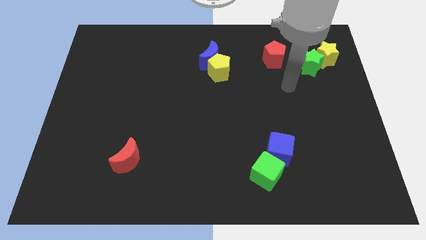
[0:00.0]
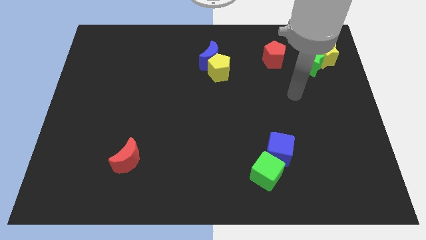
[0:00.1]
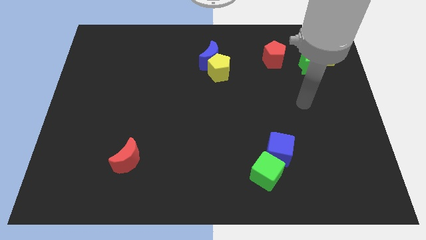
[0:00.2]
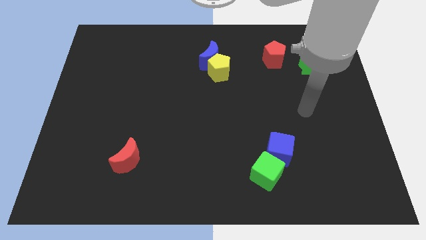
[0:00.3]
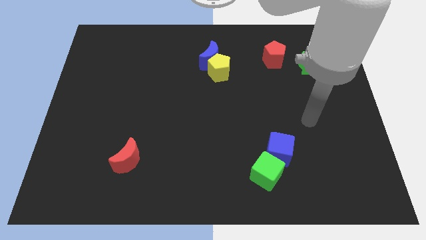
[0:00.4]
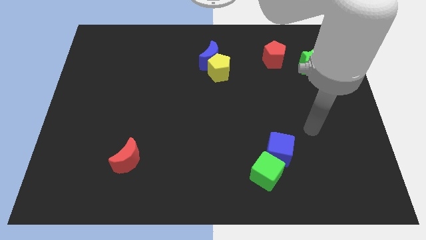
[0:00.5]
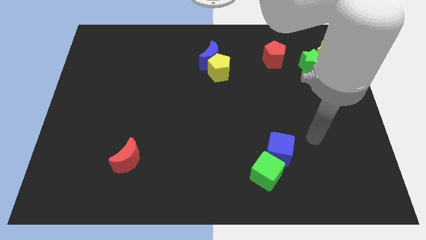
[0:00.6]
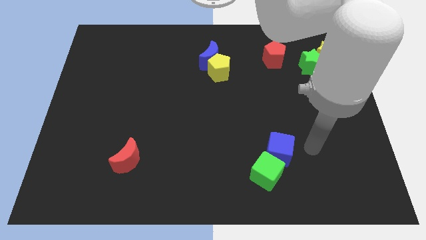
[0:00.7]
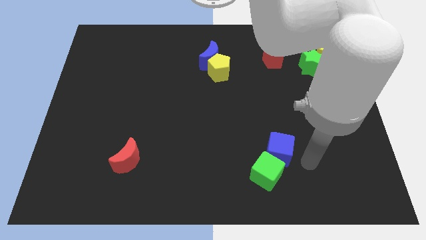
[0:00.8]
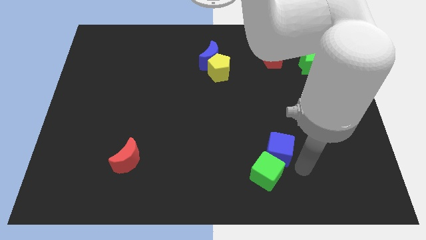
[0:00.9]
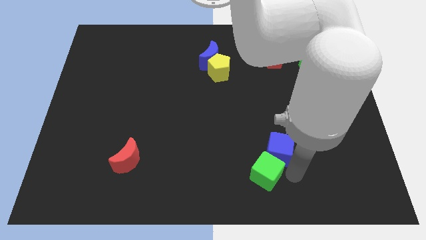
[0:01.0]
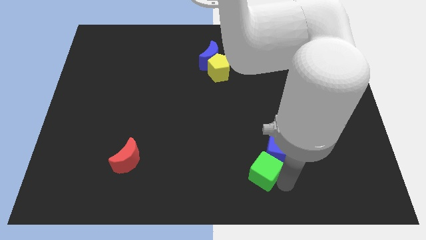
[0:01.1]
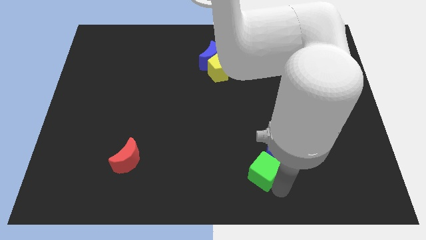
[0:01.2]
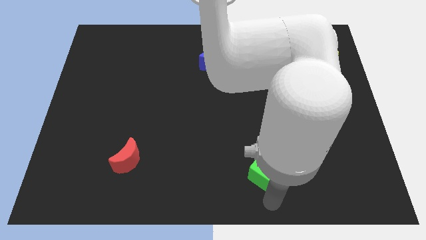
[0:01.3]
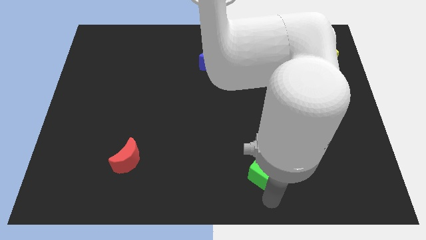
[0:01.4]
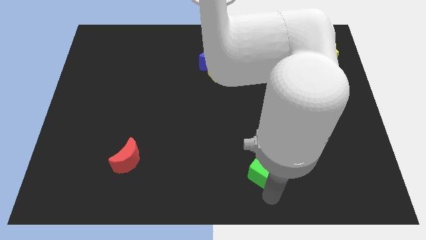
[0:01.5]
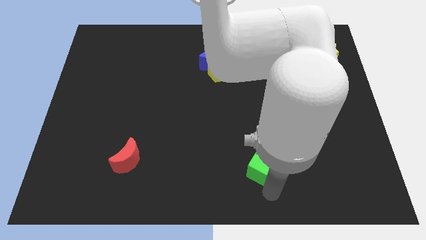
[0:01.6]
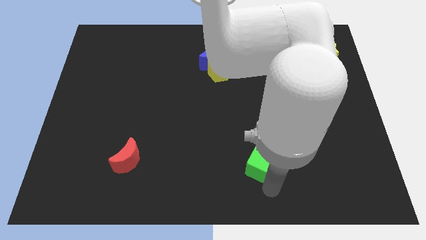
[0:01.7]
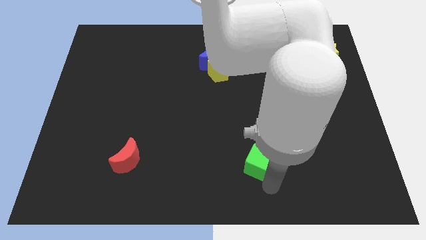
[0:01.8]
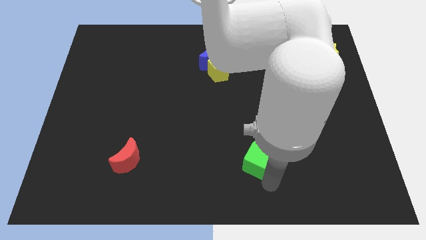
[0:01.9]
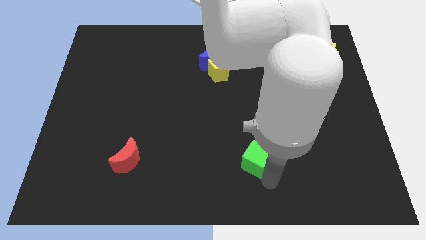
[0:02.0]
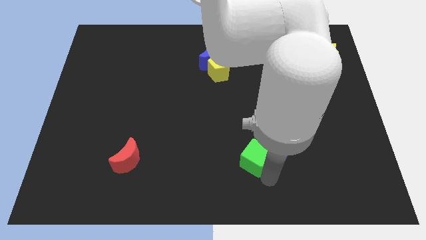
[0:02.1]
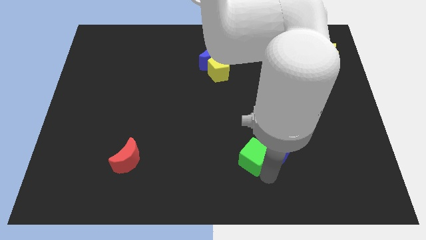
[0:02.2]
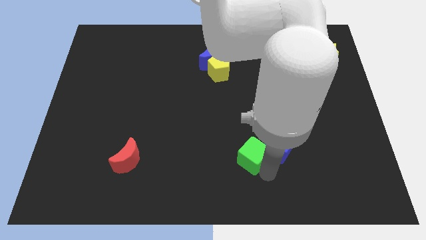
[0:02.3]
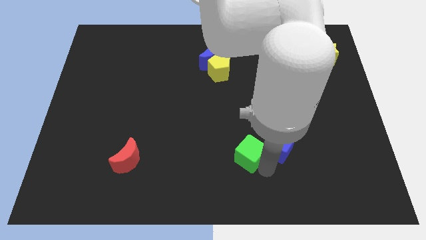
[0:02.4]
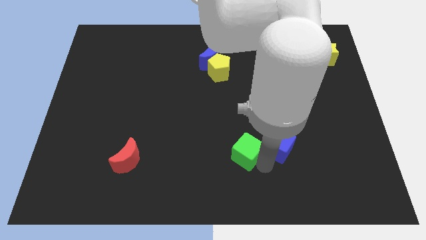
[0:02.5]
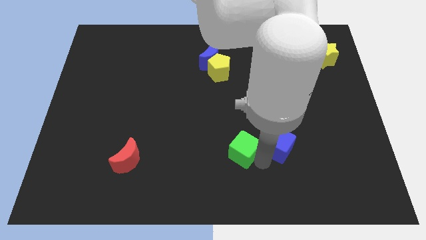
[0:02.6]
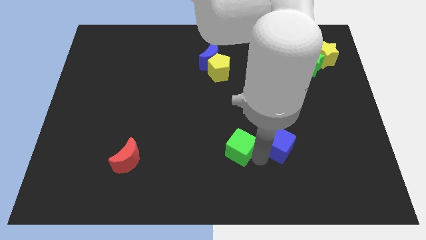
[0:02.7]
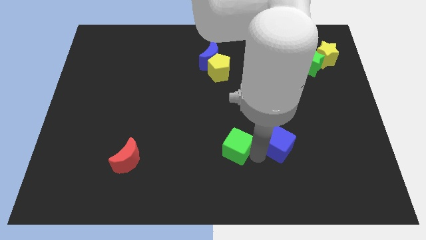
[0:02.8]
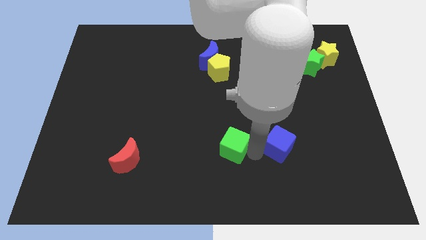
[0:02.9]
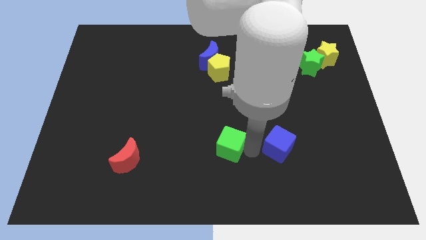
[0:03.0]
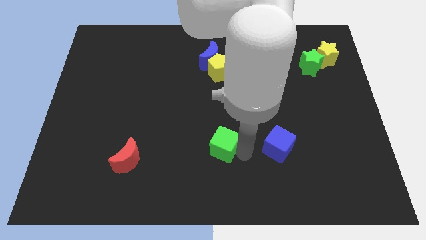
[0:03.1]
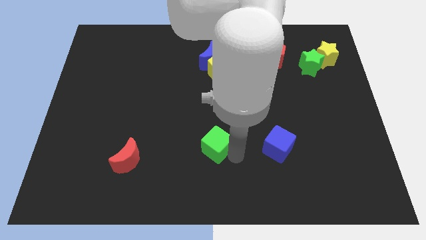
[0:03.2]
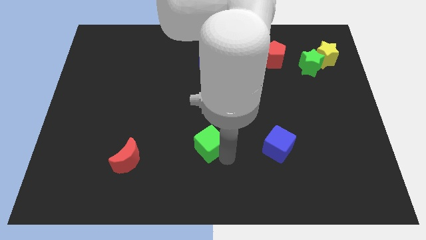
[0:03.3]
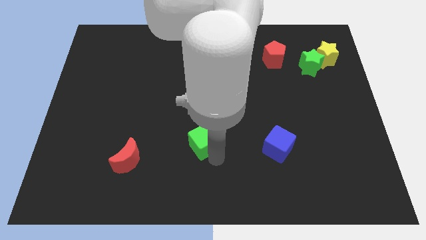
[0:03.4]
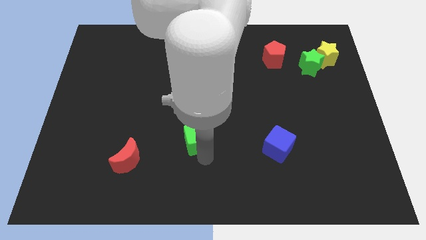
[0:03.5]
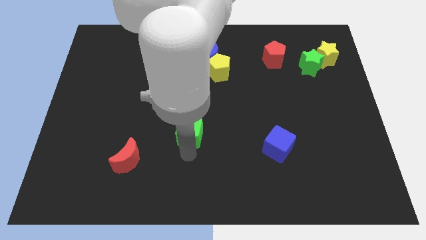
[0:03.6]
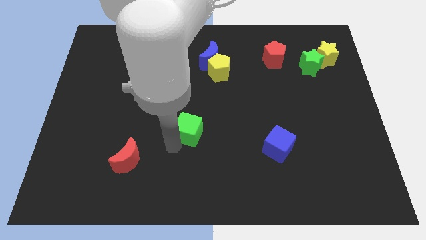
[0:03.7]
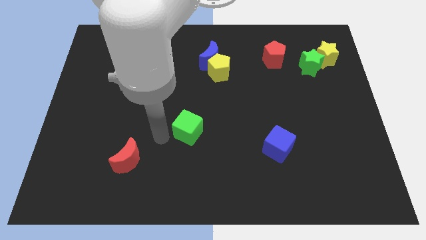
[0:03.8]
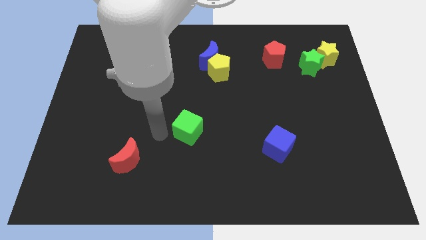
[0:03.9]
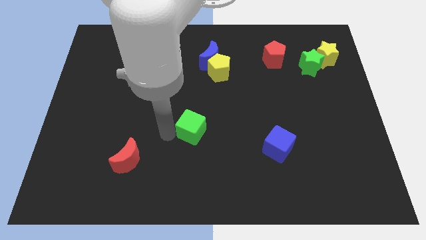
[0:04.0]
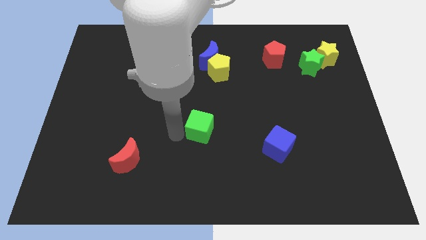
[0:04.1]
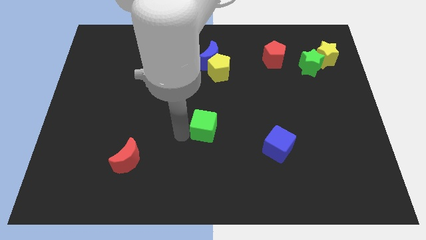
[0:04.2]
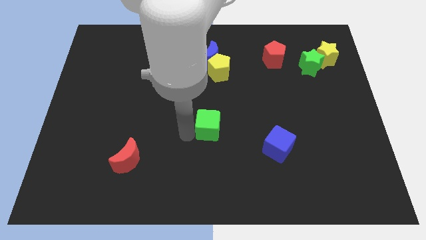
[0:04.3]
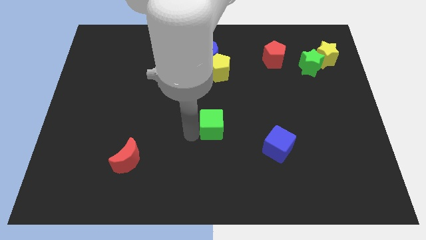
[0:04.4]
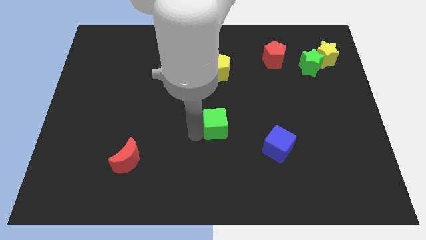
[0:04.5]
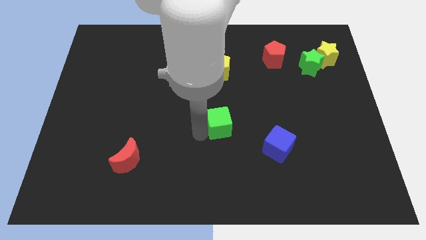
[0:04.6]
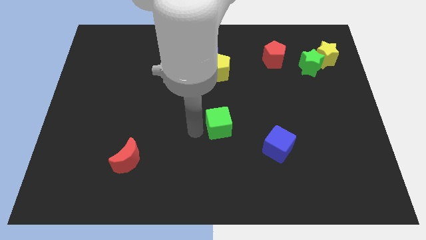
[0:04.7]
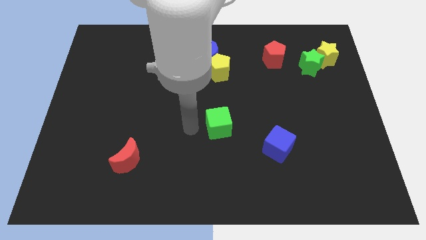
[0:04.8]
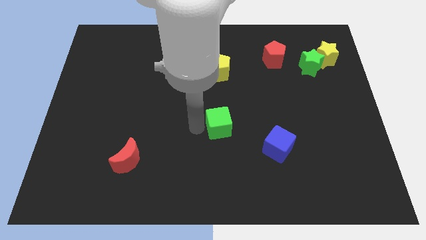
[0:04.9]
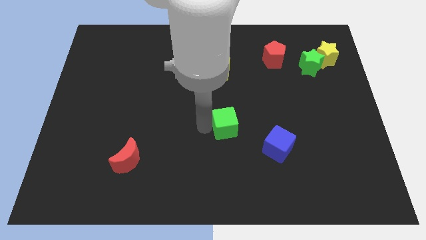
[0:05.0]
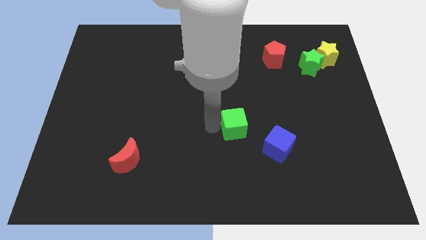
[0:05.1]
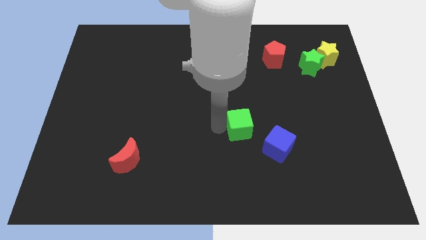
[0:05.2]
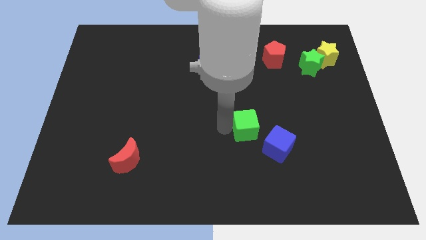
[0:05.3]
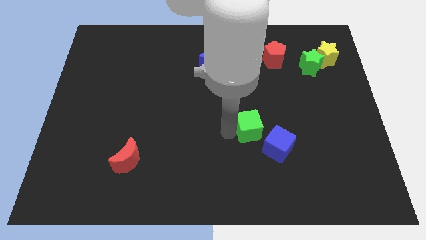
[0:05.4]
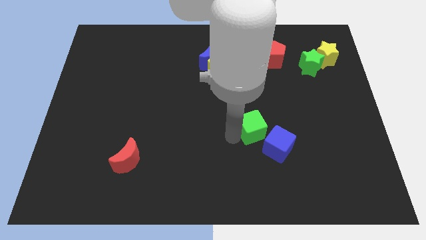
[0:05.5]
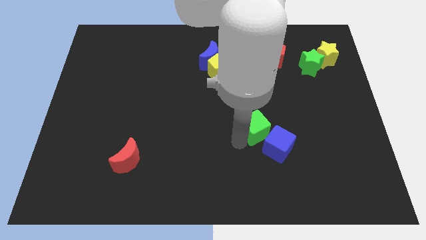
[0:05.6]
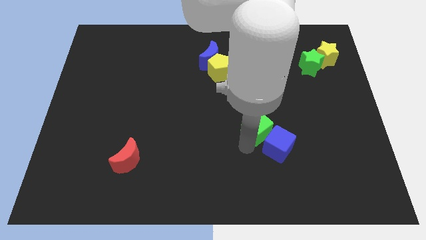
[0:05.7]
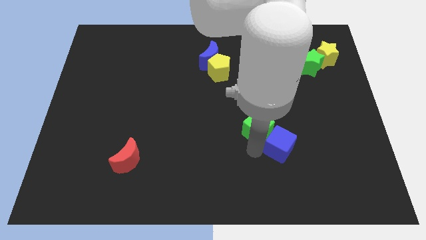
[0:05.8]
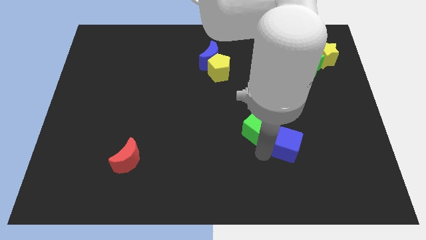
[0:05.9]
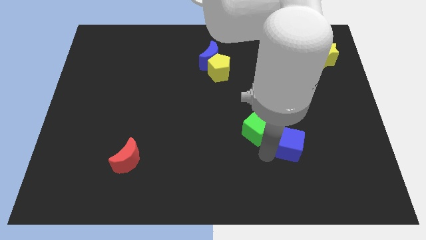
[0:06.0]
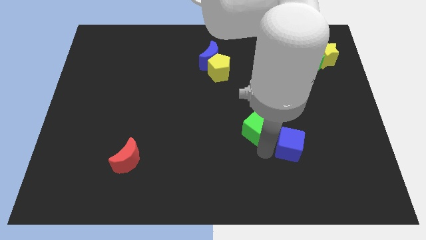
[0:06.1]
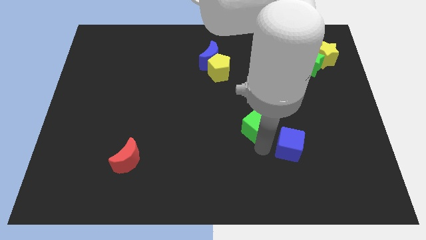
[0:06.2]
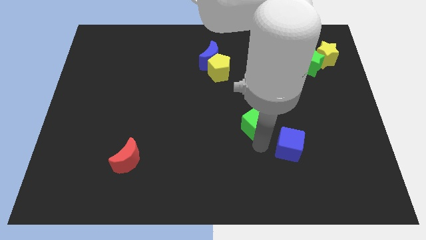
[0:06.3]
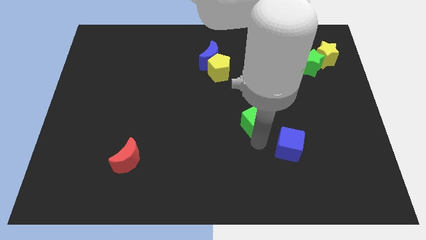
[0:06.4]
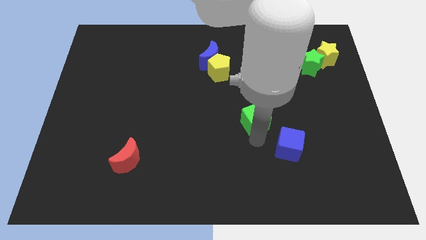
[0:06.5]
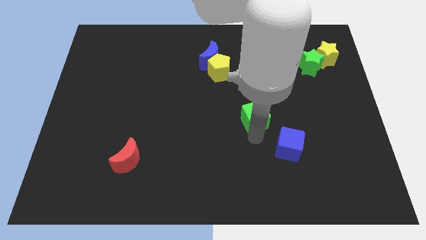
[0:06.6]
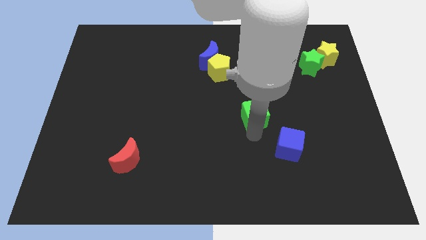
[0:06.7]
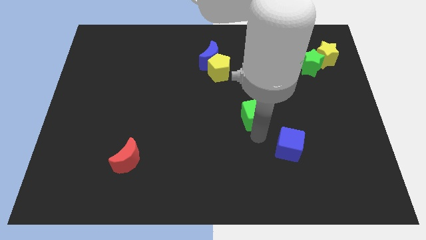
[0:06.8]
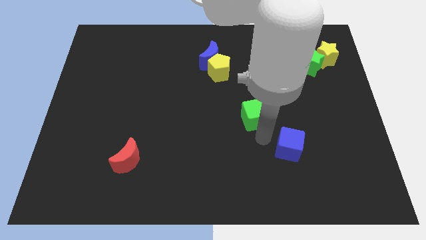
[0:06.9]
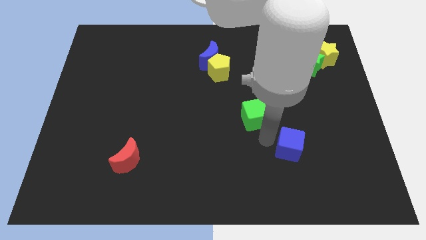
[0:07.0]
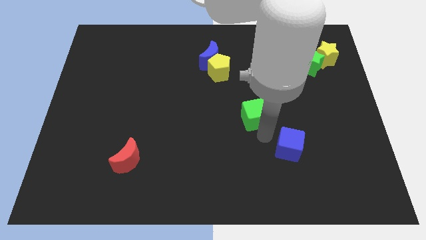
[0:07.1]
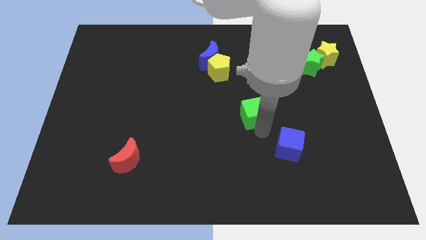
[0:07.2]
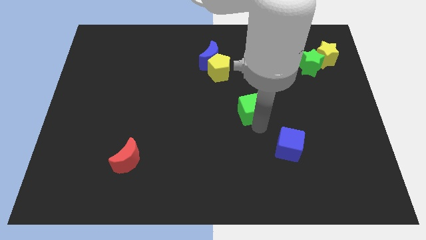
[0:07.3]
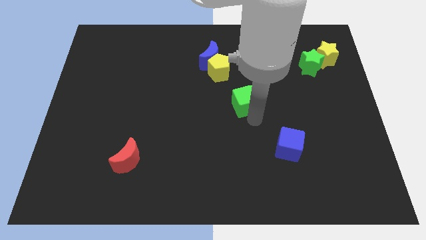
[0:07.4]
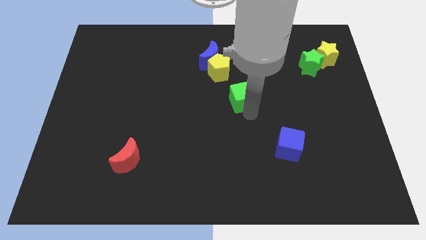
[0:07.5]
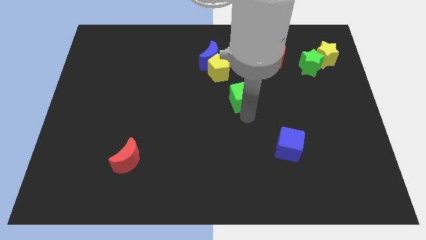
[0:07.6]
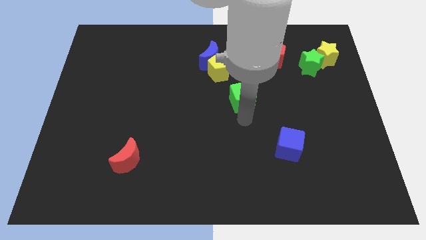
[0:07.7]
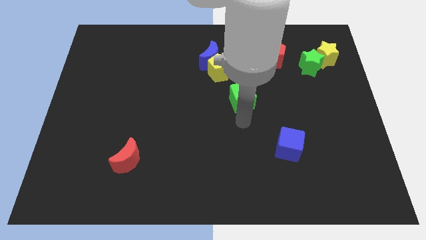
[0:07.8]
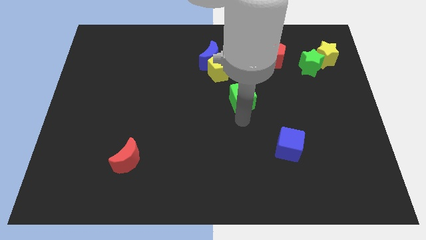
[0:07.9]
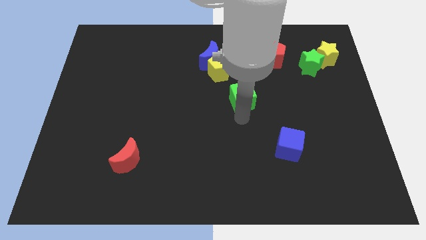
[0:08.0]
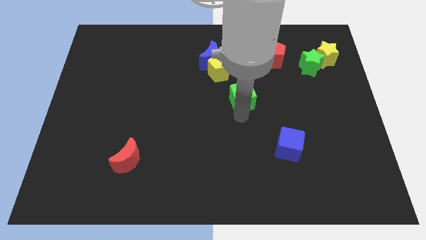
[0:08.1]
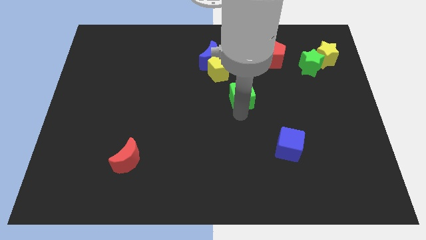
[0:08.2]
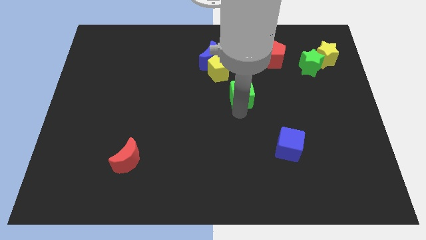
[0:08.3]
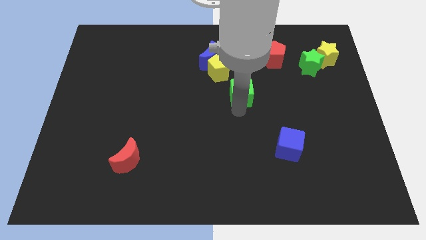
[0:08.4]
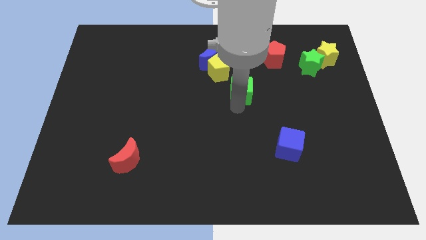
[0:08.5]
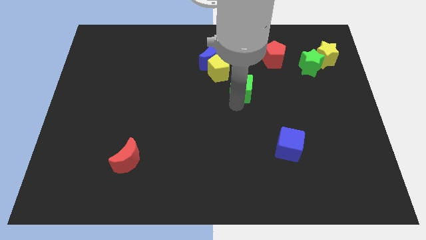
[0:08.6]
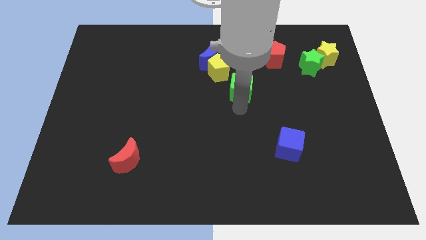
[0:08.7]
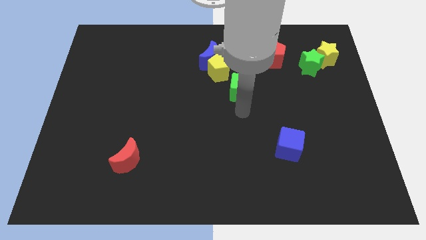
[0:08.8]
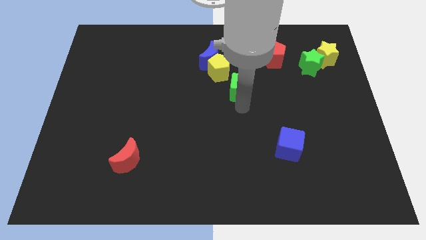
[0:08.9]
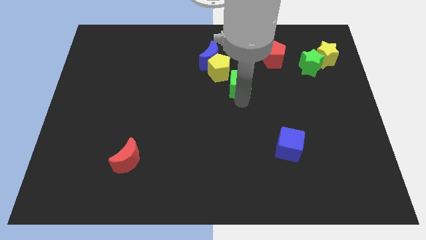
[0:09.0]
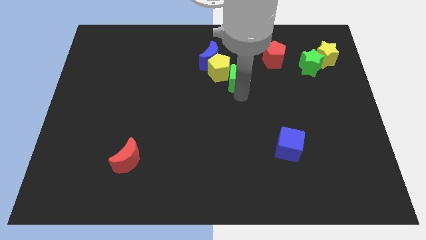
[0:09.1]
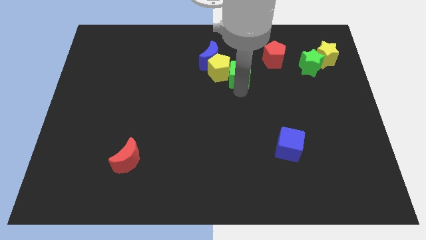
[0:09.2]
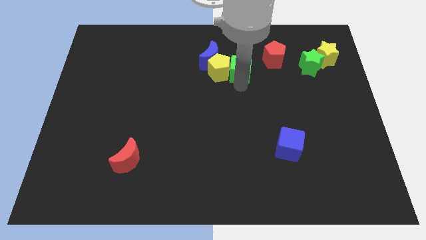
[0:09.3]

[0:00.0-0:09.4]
move the green cube to the left side of the red pentagon
